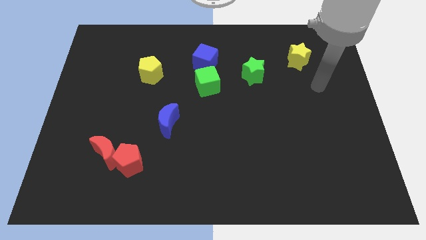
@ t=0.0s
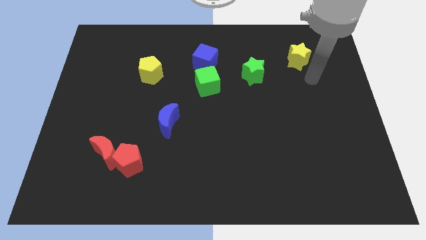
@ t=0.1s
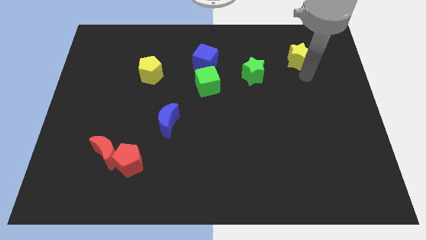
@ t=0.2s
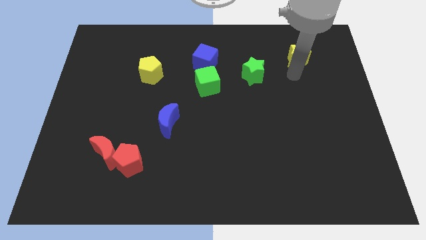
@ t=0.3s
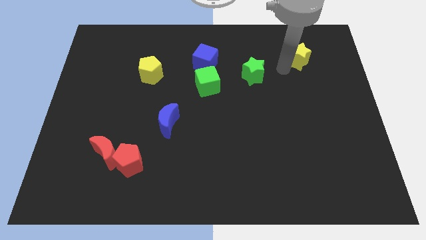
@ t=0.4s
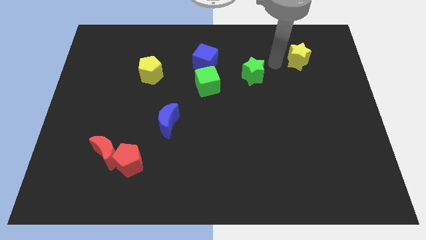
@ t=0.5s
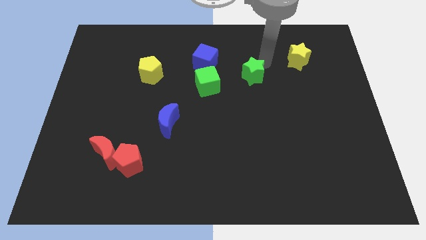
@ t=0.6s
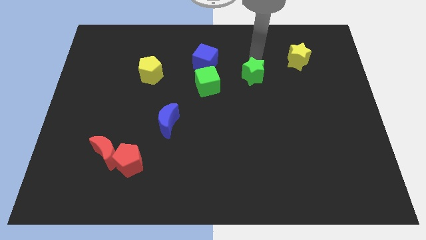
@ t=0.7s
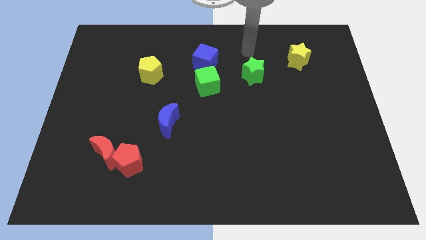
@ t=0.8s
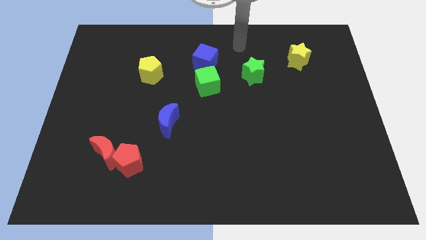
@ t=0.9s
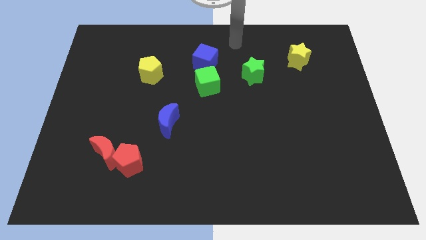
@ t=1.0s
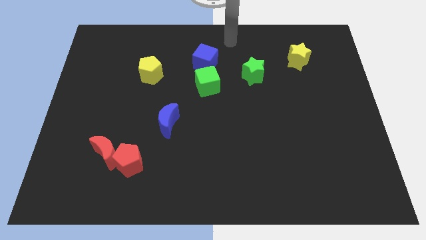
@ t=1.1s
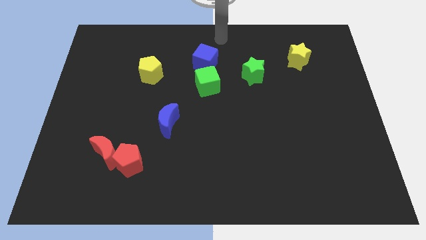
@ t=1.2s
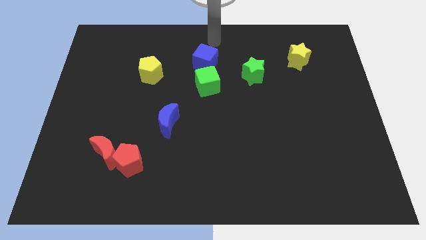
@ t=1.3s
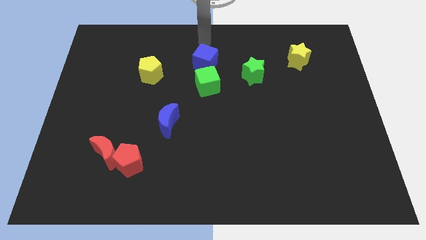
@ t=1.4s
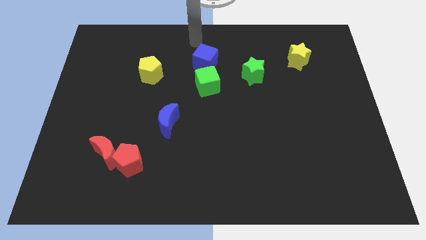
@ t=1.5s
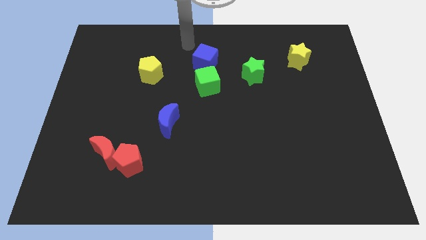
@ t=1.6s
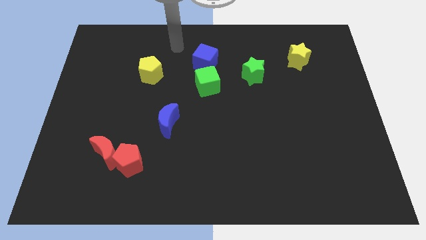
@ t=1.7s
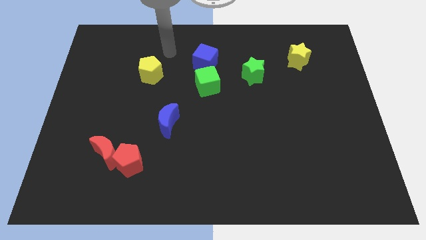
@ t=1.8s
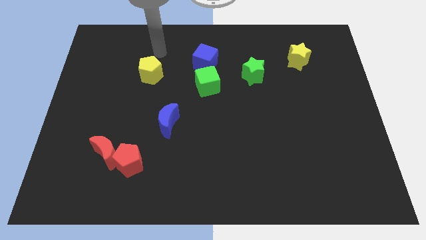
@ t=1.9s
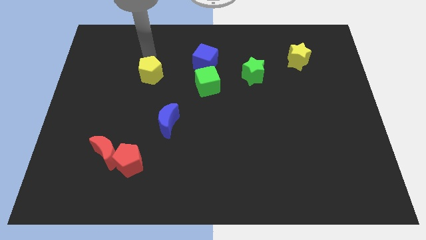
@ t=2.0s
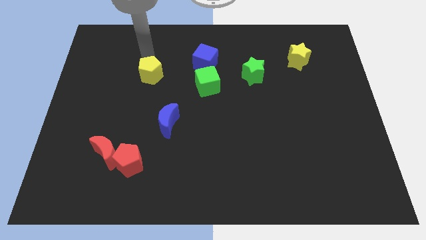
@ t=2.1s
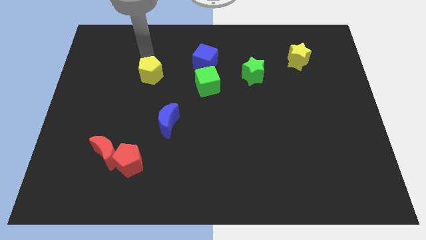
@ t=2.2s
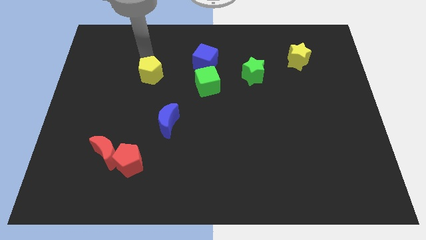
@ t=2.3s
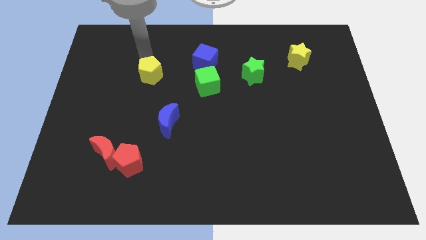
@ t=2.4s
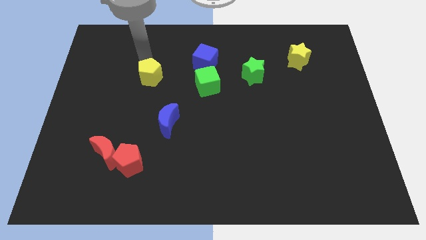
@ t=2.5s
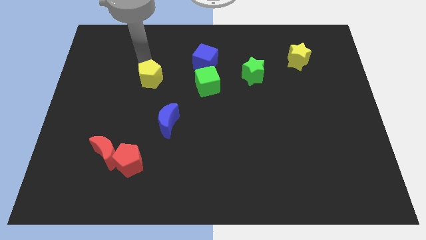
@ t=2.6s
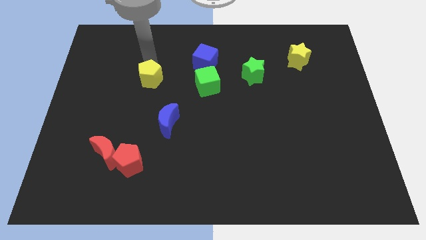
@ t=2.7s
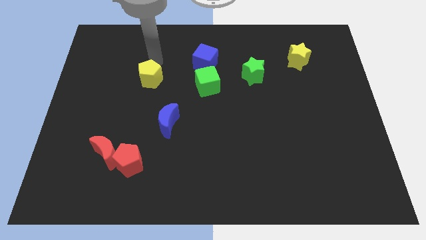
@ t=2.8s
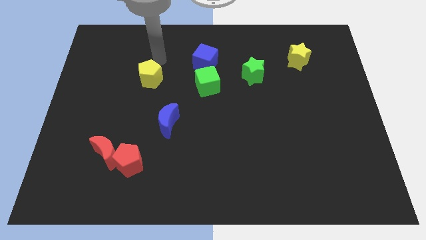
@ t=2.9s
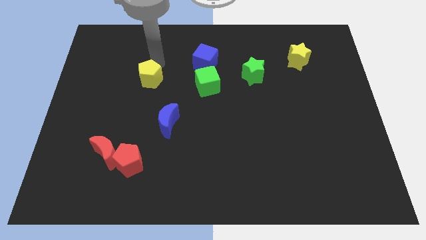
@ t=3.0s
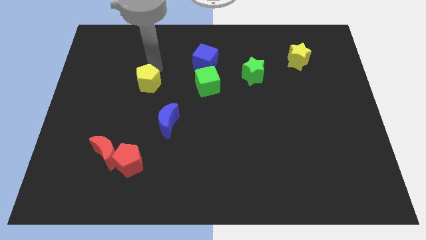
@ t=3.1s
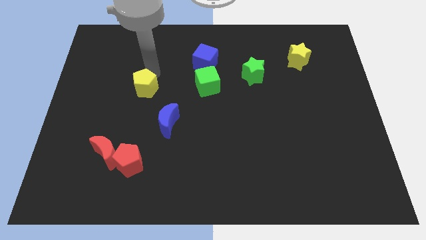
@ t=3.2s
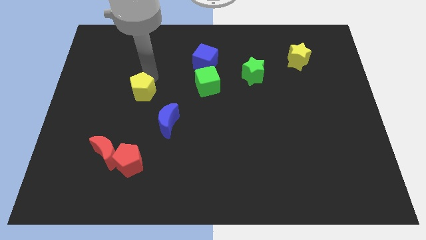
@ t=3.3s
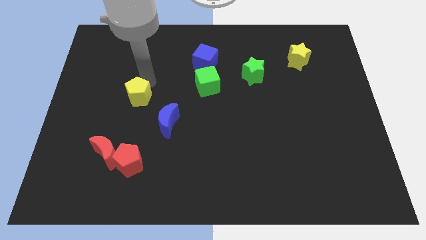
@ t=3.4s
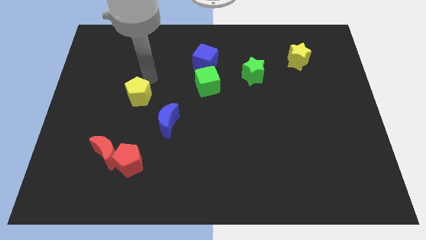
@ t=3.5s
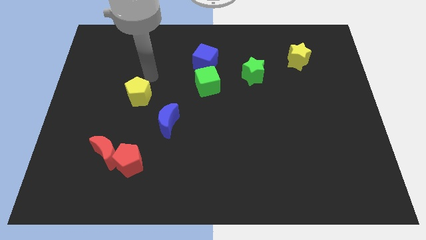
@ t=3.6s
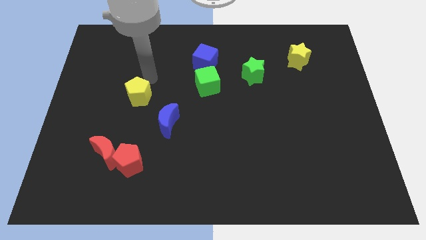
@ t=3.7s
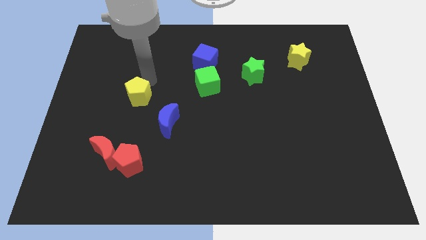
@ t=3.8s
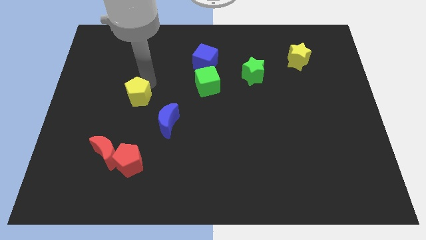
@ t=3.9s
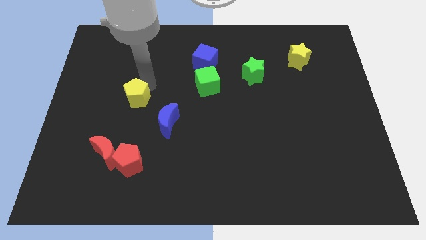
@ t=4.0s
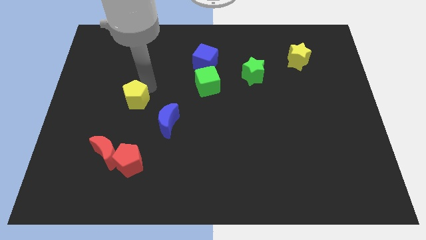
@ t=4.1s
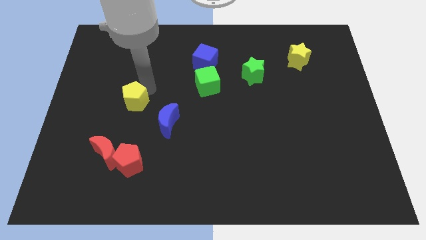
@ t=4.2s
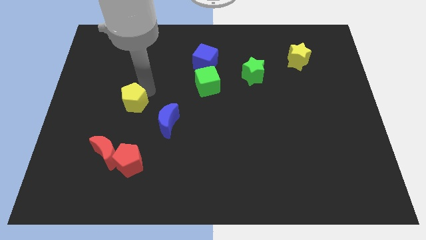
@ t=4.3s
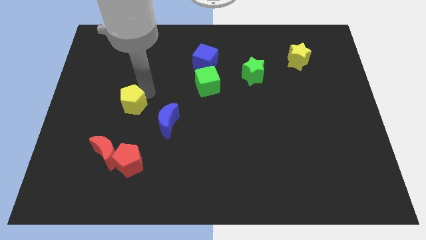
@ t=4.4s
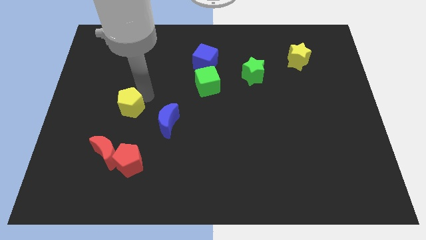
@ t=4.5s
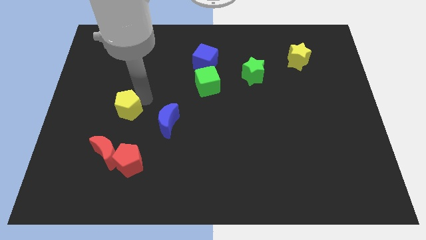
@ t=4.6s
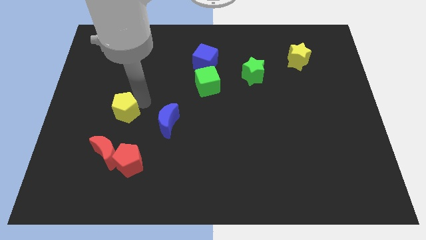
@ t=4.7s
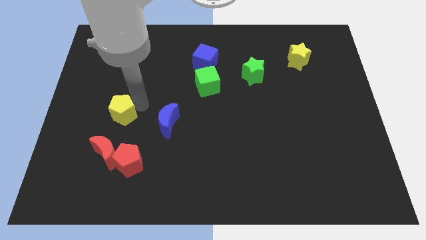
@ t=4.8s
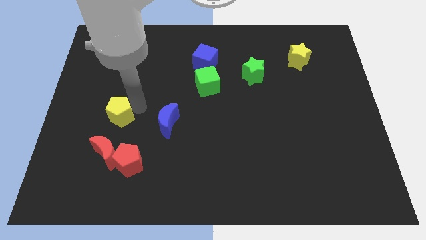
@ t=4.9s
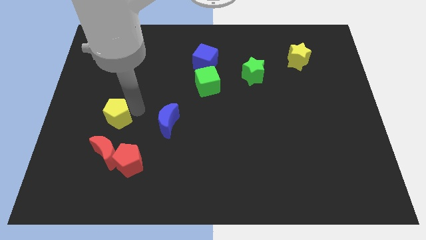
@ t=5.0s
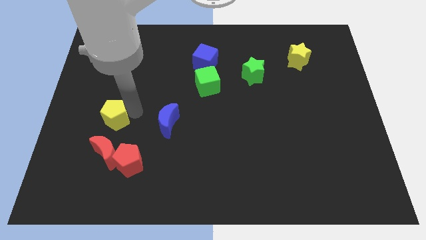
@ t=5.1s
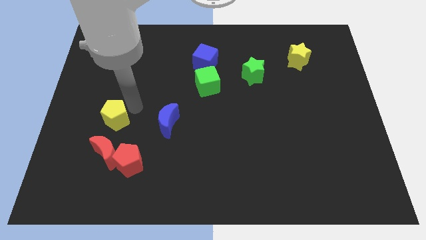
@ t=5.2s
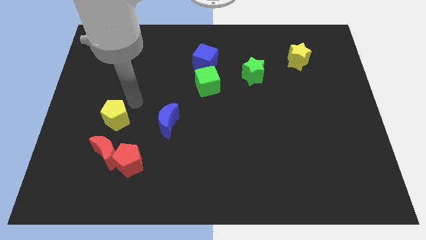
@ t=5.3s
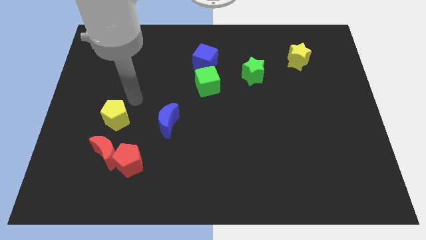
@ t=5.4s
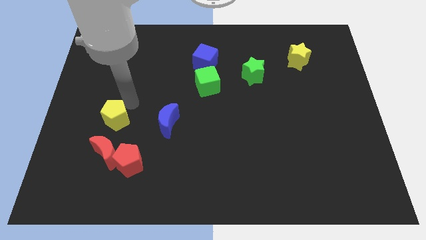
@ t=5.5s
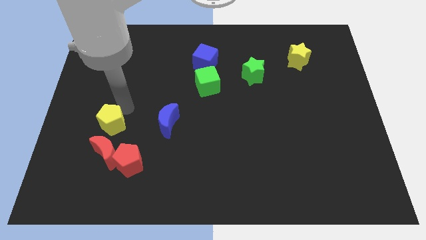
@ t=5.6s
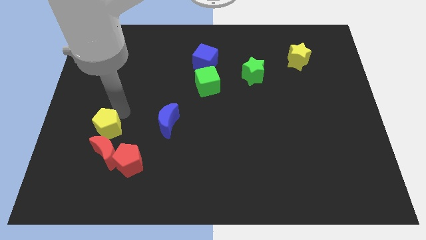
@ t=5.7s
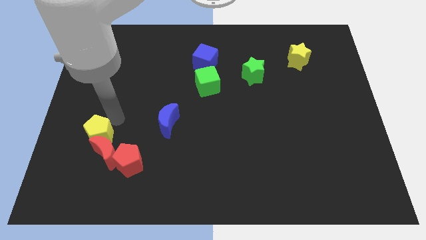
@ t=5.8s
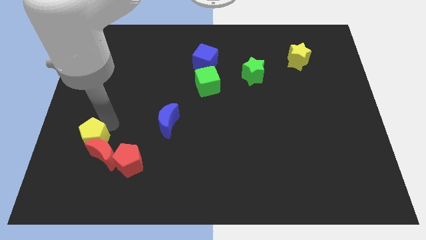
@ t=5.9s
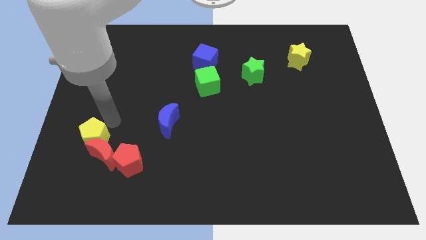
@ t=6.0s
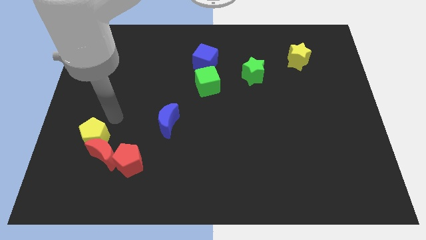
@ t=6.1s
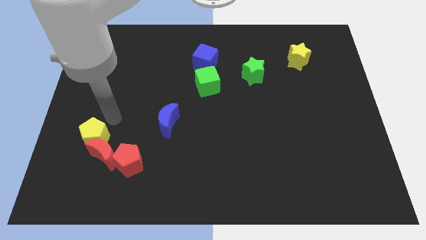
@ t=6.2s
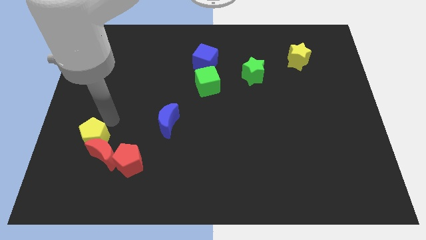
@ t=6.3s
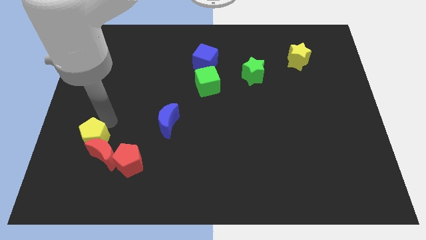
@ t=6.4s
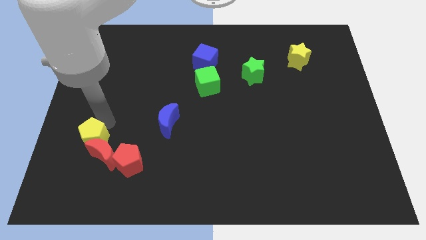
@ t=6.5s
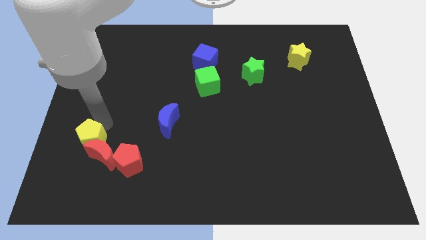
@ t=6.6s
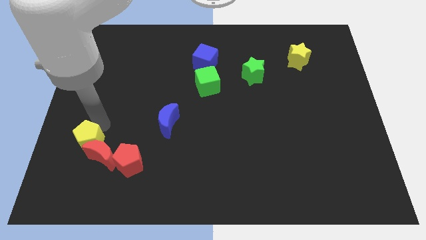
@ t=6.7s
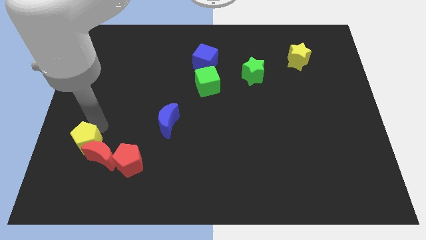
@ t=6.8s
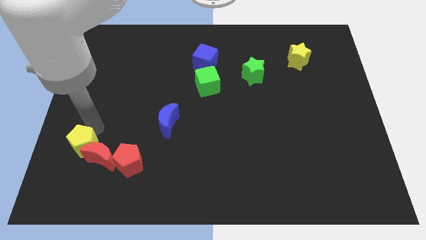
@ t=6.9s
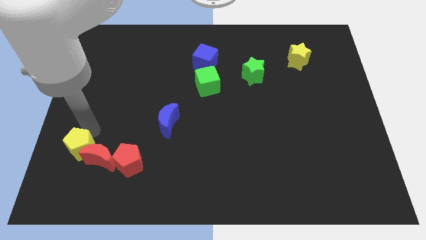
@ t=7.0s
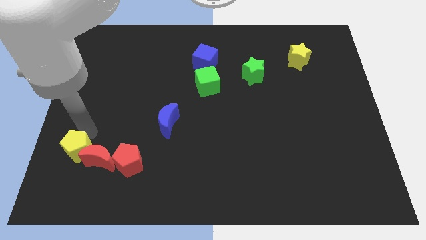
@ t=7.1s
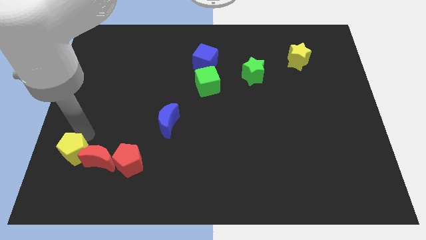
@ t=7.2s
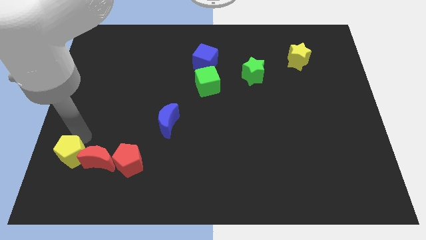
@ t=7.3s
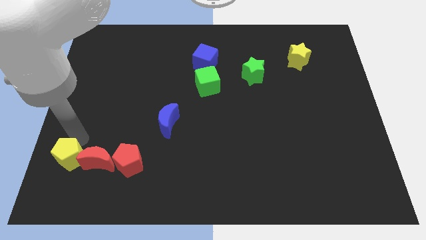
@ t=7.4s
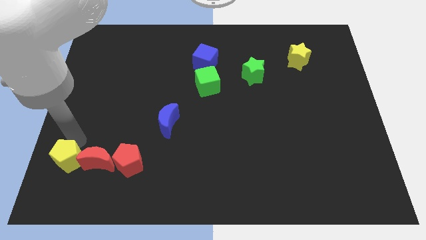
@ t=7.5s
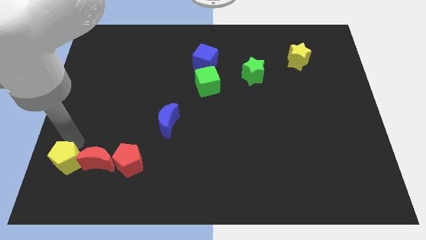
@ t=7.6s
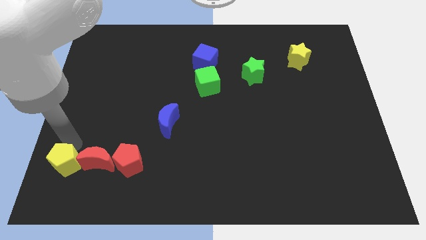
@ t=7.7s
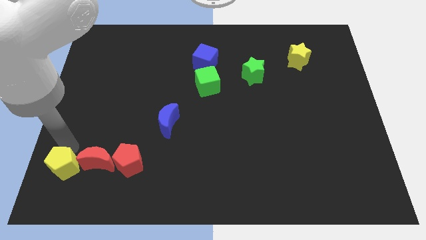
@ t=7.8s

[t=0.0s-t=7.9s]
move the yellow pentagon to the bottom left
